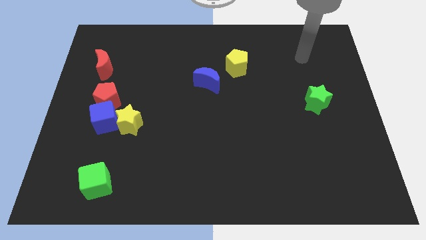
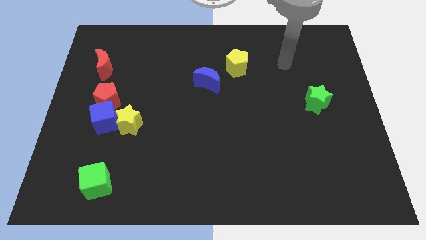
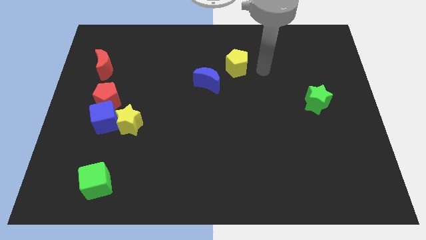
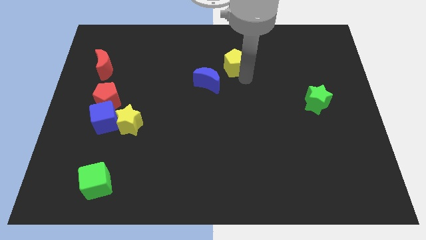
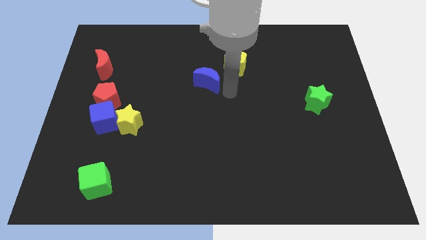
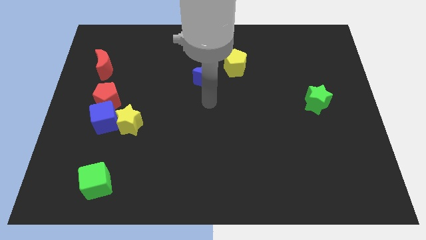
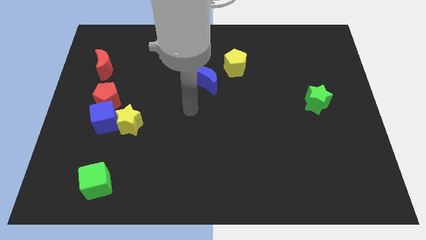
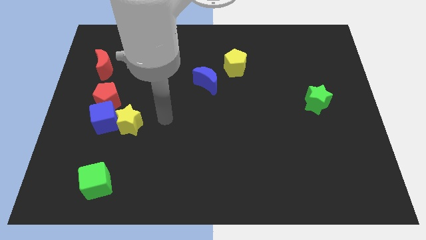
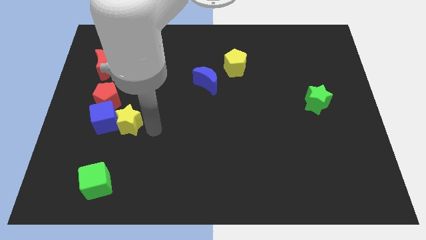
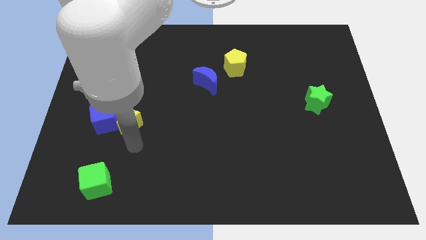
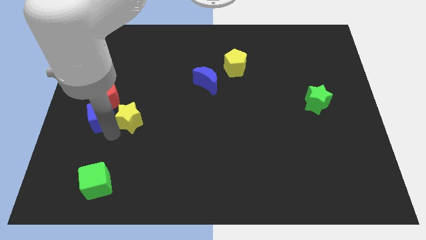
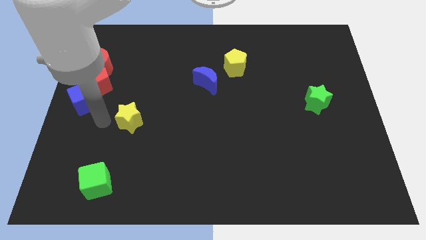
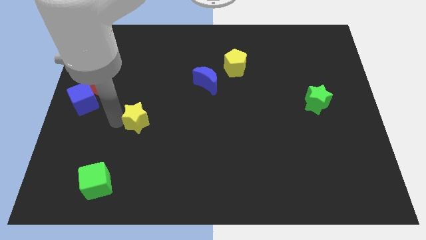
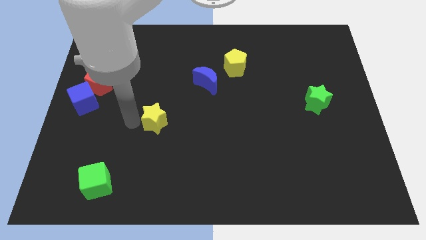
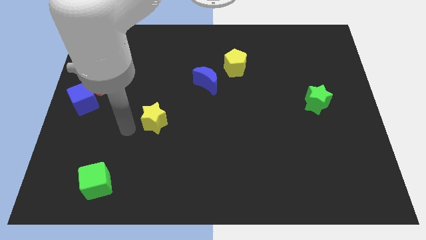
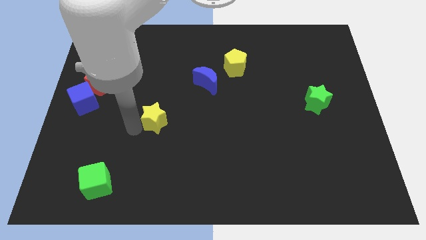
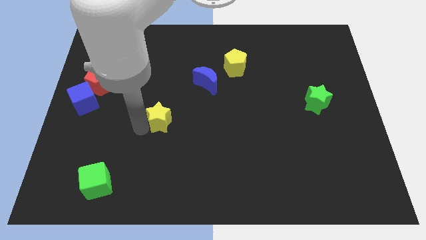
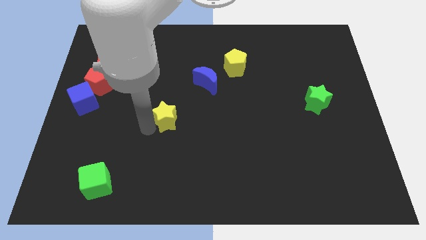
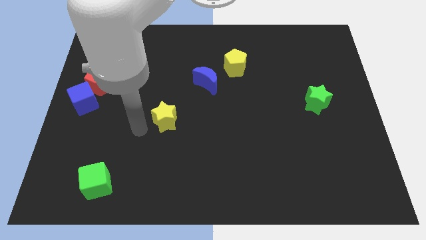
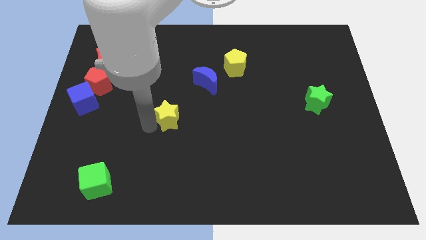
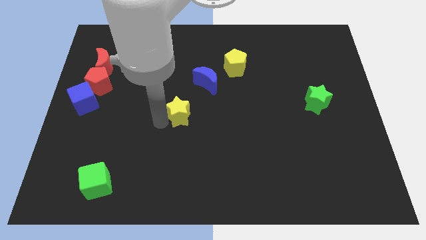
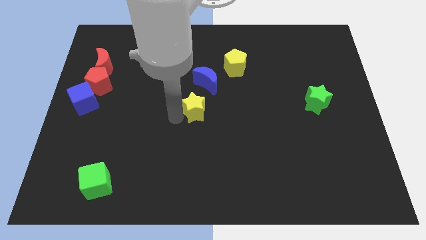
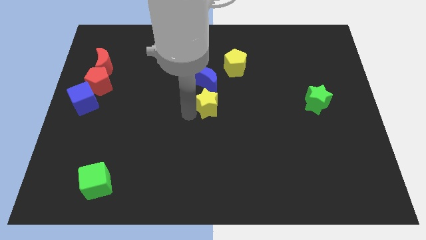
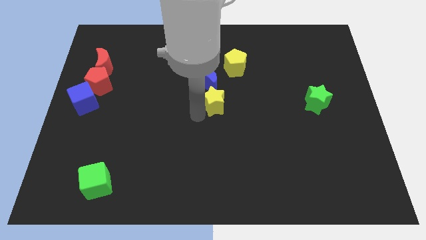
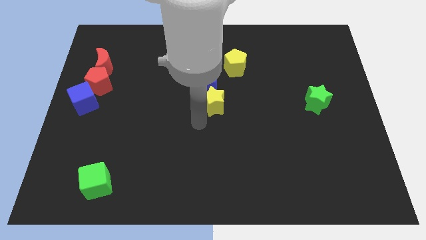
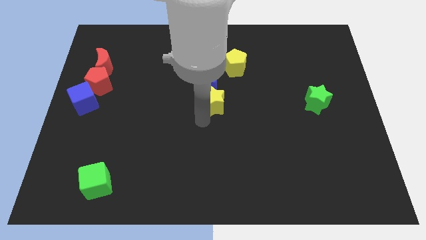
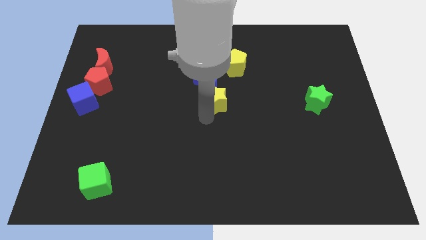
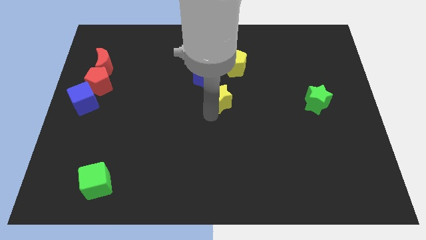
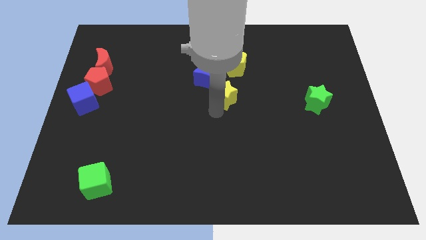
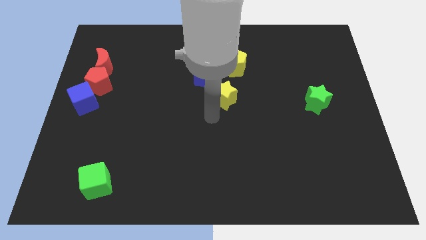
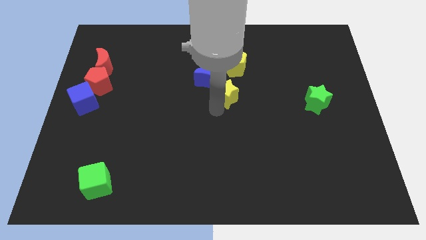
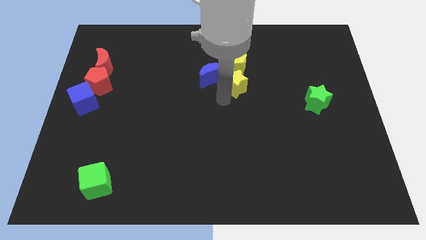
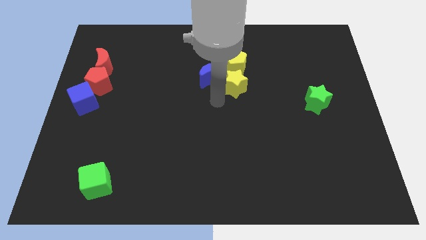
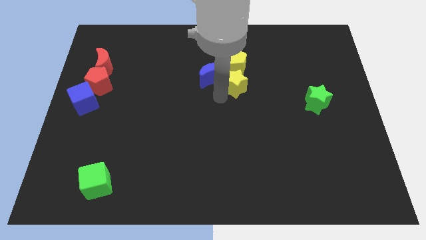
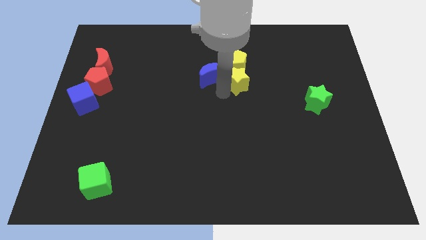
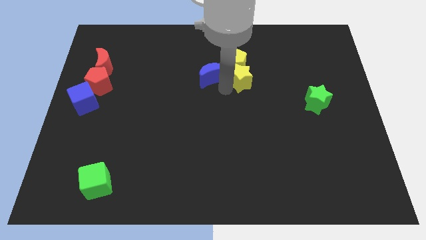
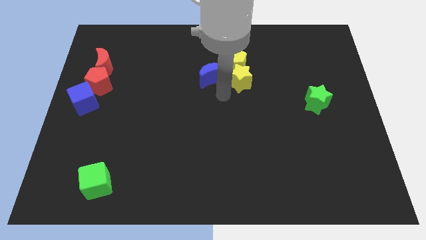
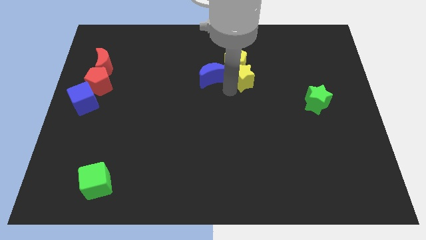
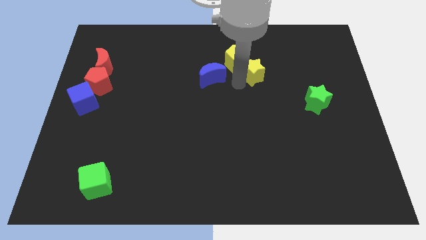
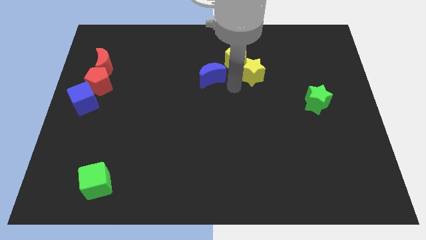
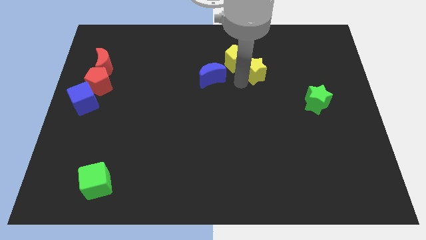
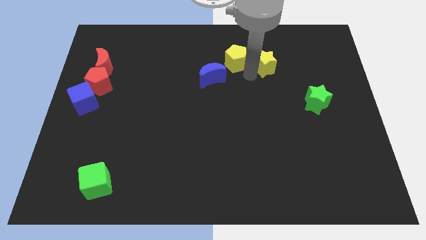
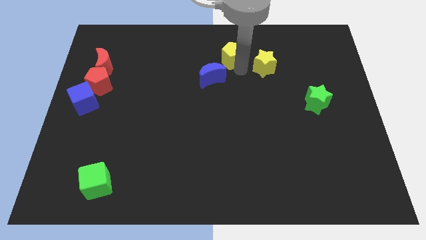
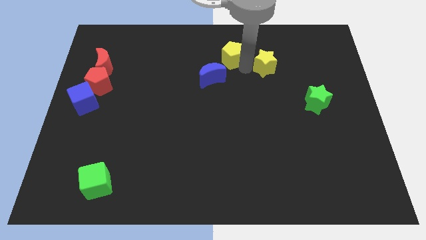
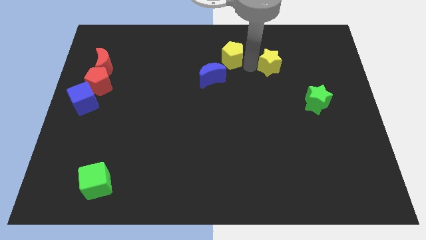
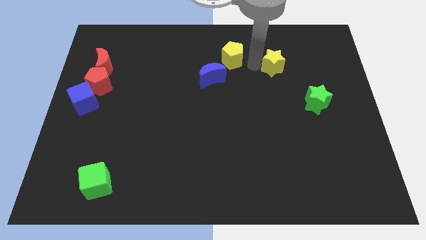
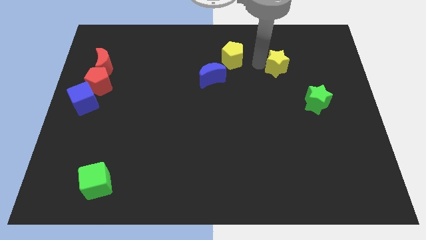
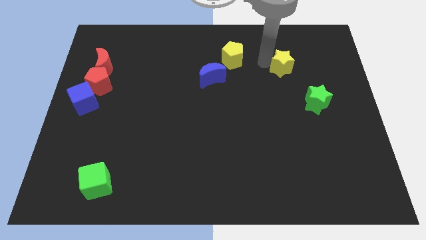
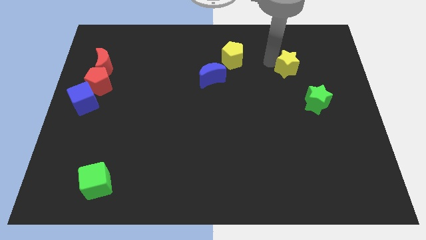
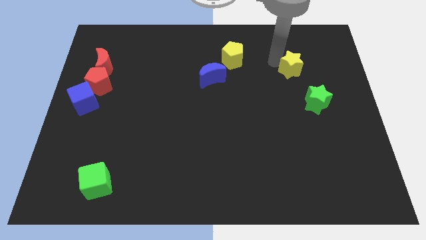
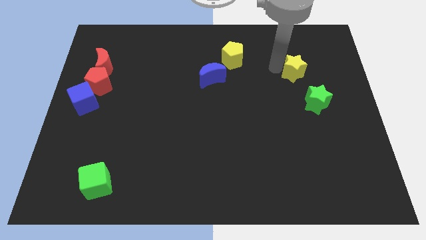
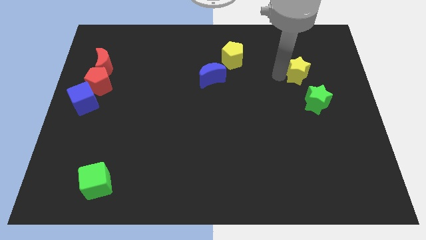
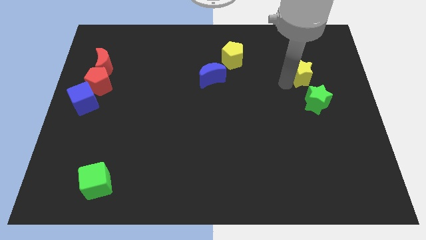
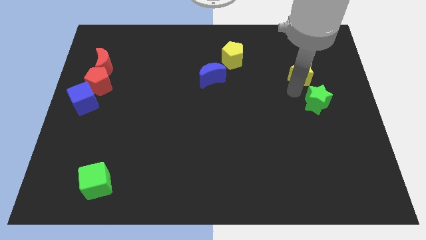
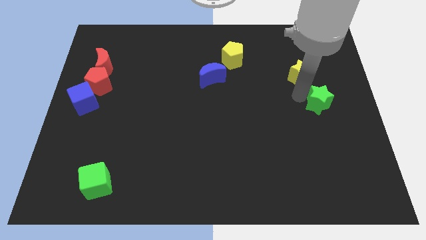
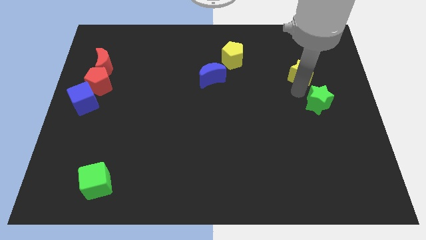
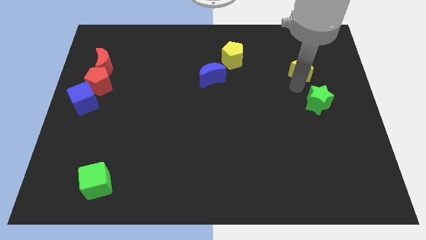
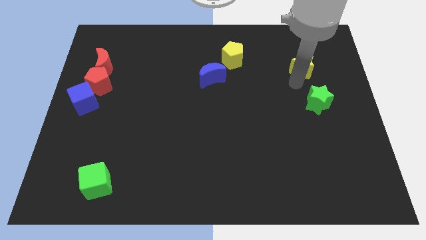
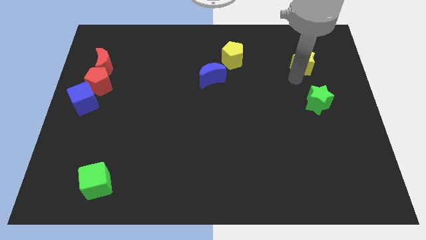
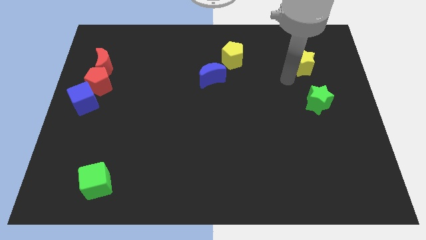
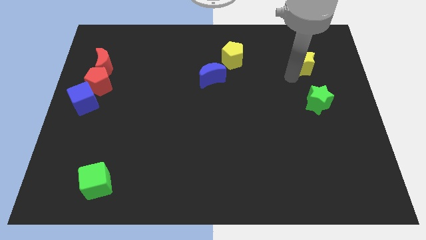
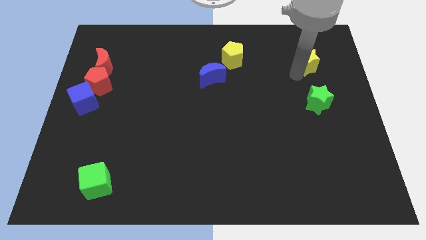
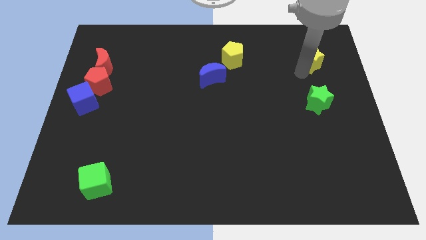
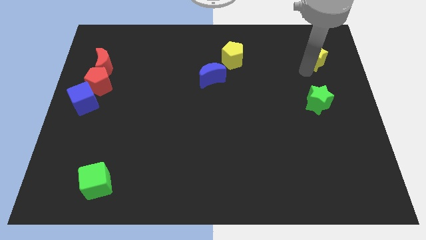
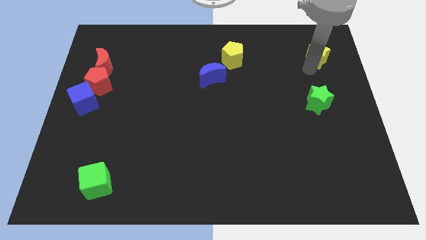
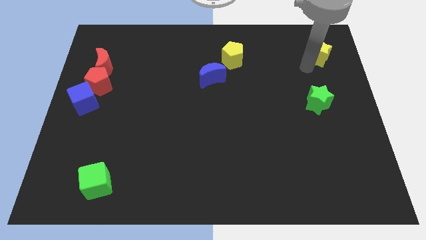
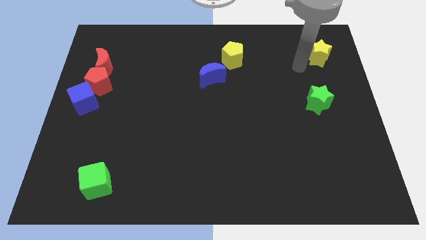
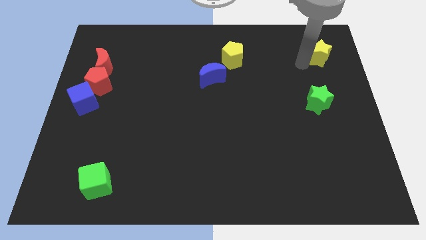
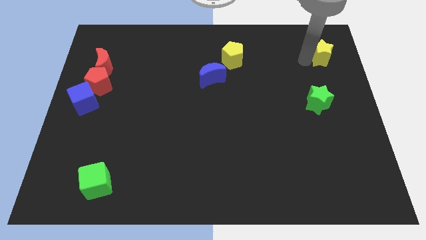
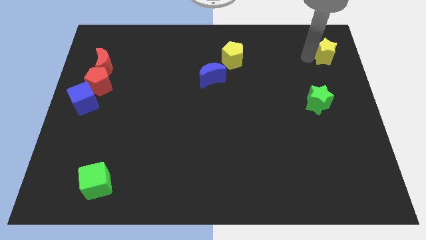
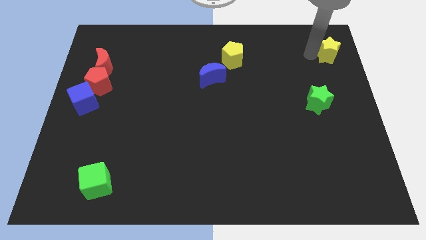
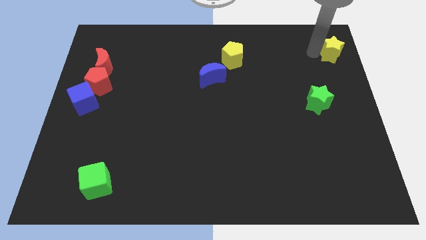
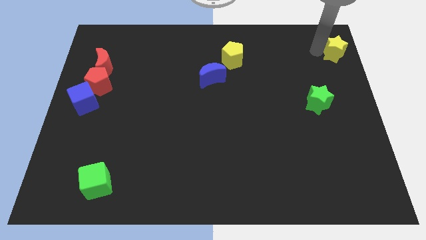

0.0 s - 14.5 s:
put the yellow star to the top right of the board
